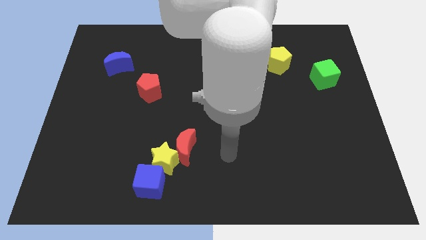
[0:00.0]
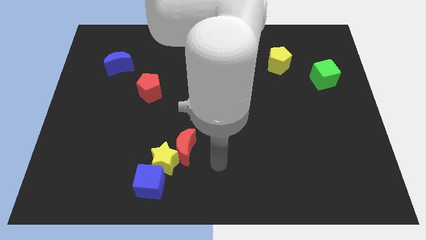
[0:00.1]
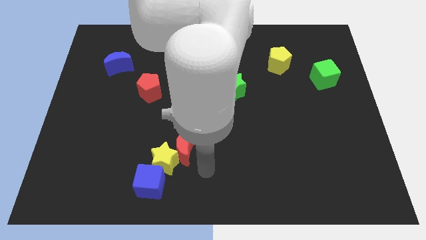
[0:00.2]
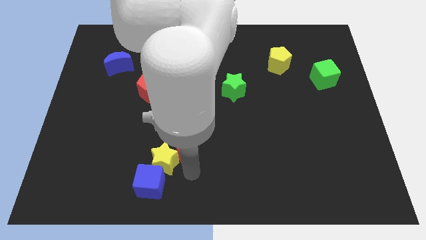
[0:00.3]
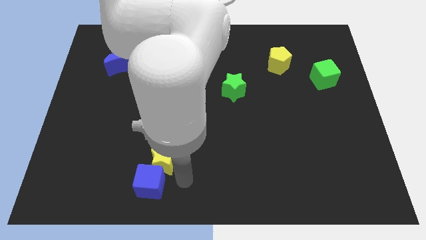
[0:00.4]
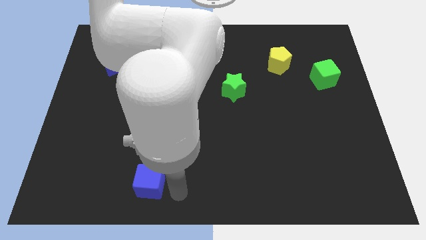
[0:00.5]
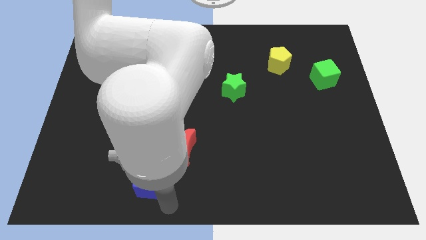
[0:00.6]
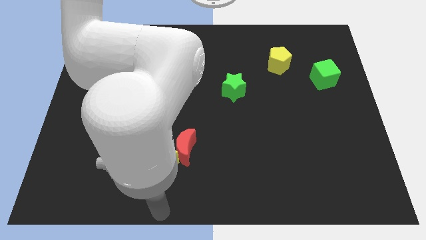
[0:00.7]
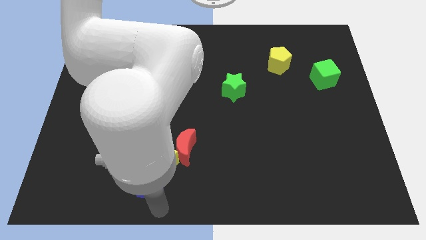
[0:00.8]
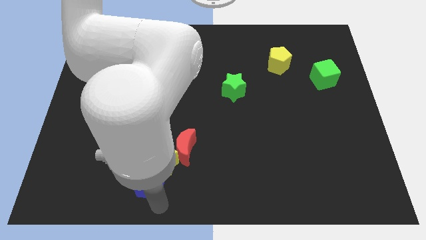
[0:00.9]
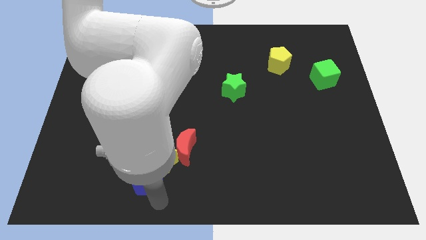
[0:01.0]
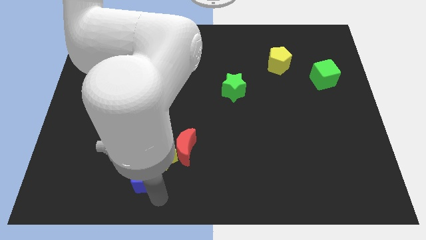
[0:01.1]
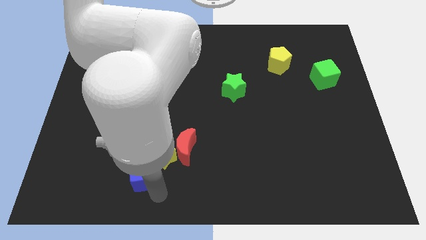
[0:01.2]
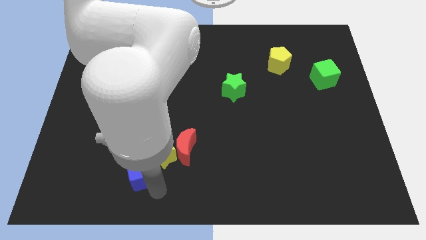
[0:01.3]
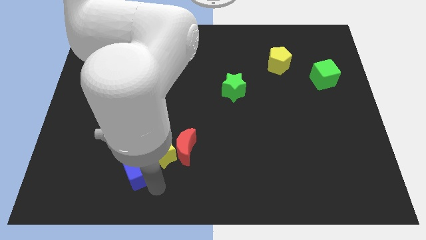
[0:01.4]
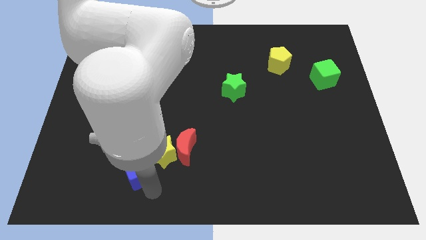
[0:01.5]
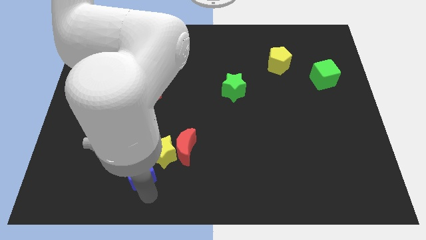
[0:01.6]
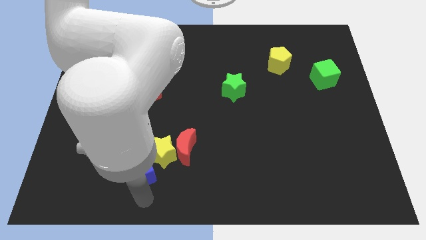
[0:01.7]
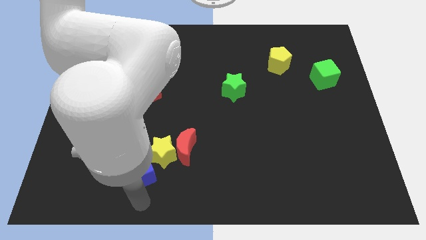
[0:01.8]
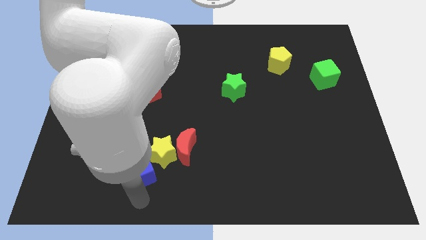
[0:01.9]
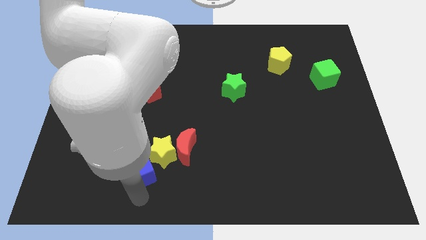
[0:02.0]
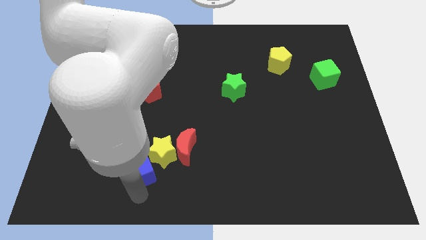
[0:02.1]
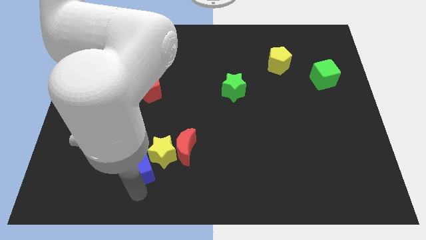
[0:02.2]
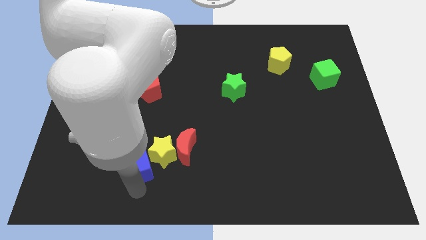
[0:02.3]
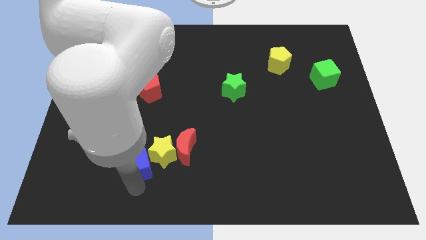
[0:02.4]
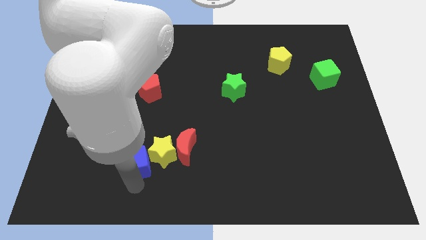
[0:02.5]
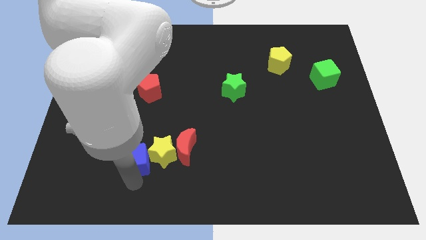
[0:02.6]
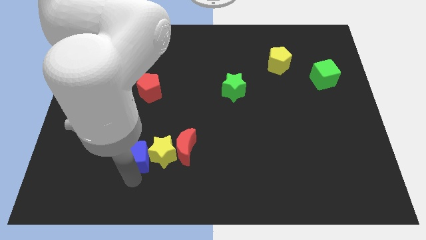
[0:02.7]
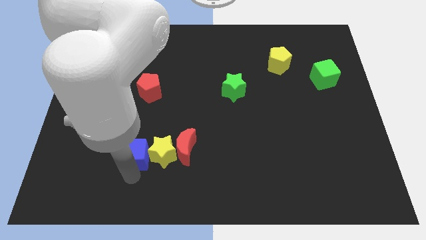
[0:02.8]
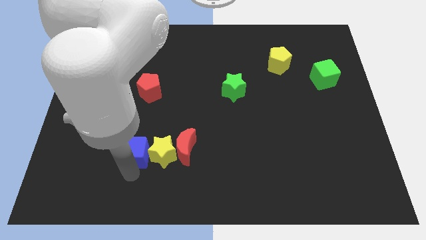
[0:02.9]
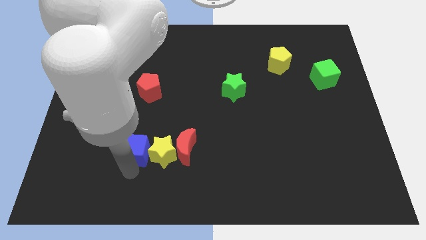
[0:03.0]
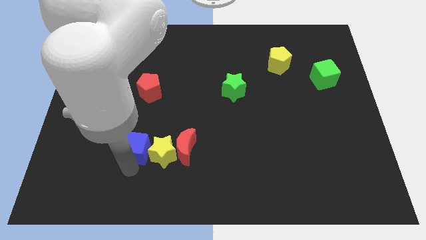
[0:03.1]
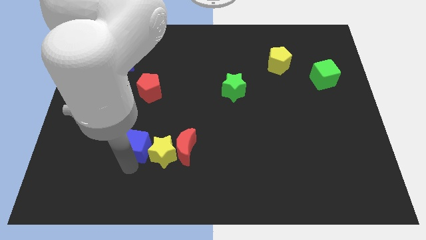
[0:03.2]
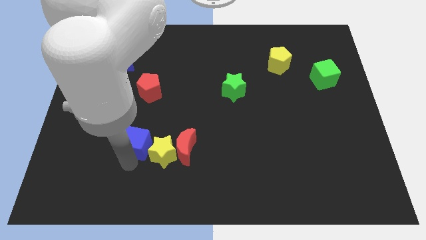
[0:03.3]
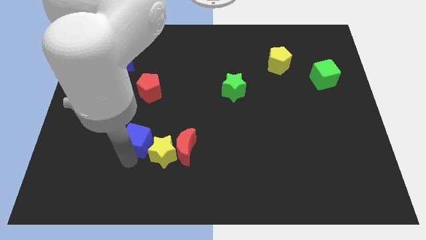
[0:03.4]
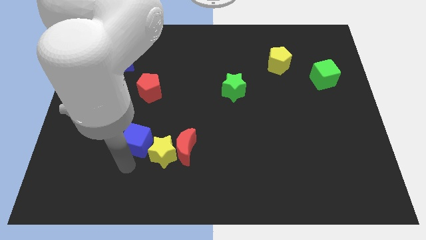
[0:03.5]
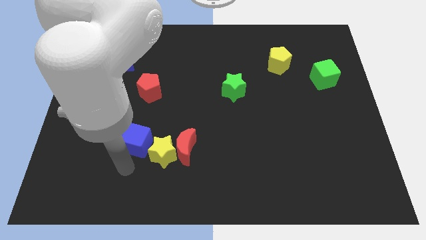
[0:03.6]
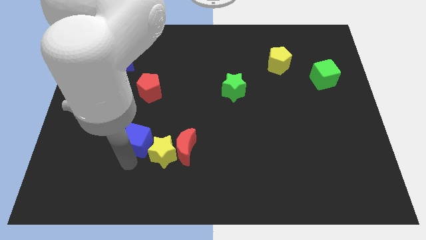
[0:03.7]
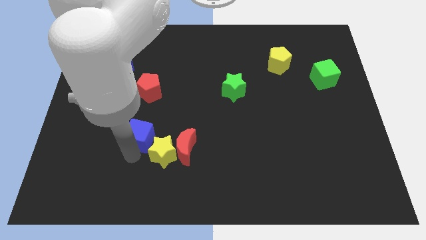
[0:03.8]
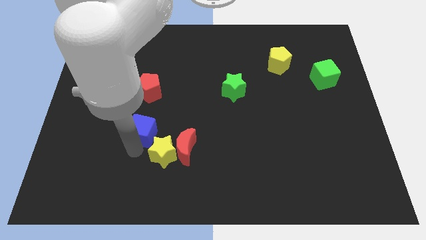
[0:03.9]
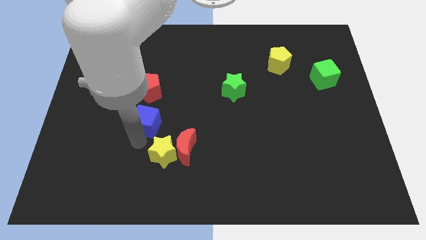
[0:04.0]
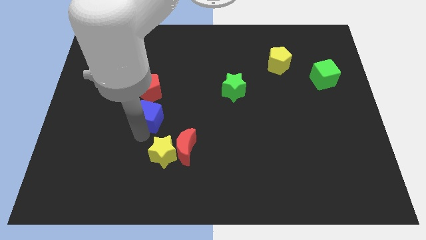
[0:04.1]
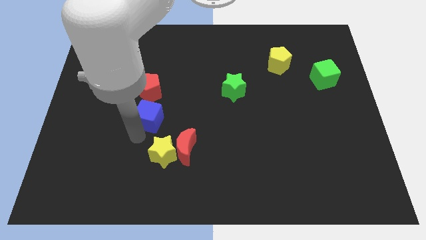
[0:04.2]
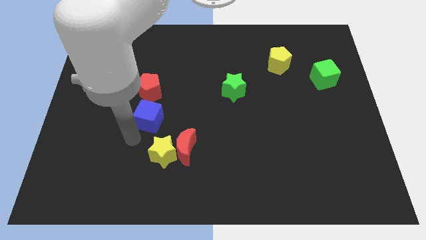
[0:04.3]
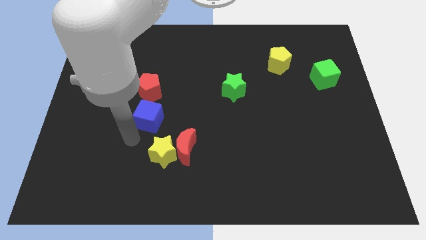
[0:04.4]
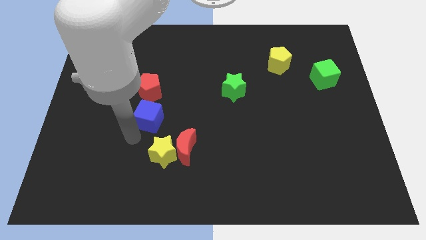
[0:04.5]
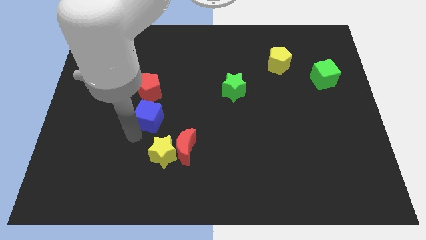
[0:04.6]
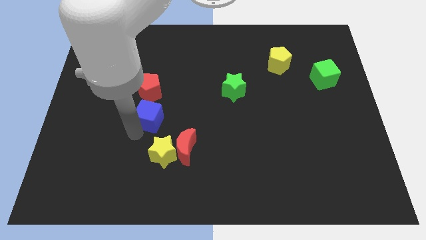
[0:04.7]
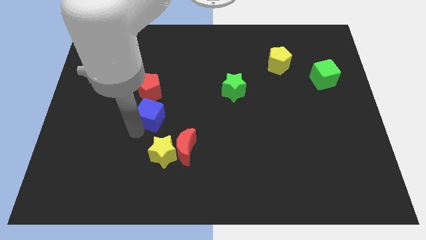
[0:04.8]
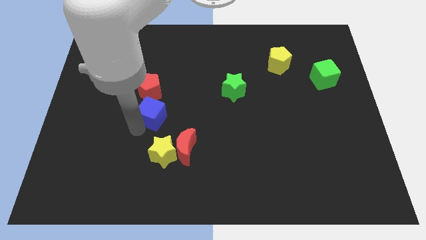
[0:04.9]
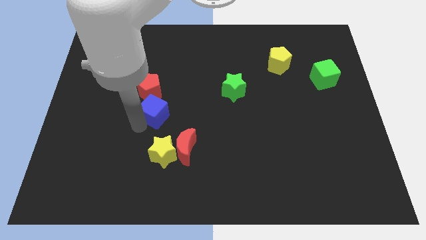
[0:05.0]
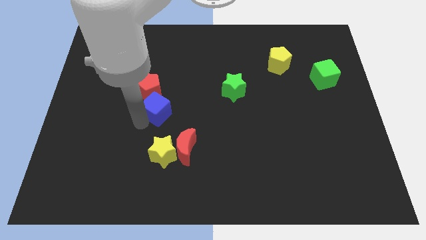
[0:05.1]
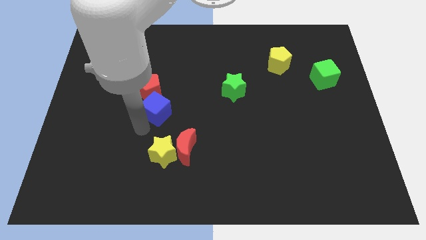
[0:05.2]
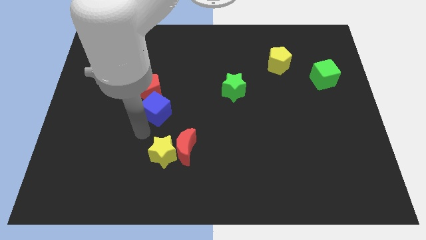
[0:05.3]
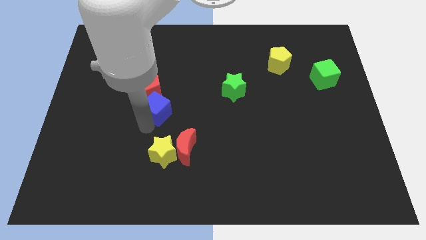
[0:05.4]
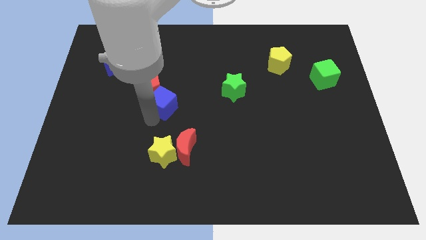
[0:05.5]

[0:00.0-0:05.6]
slide the blue cube up

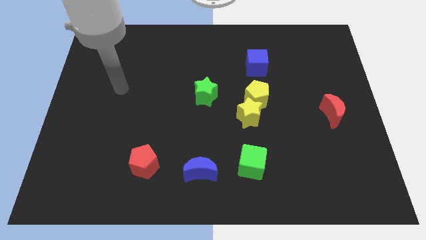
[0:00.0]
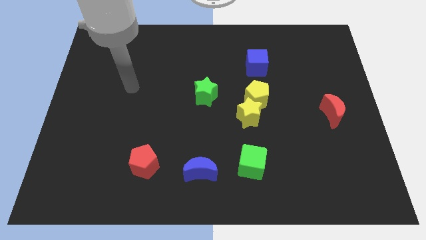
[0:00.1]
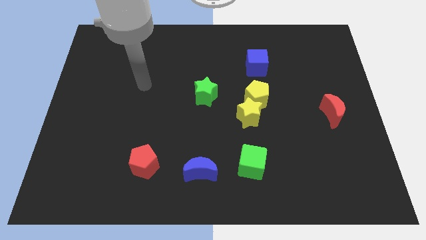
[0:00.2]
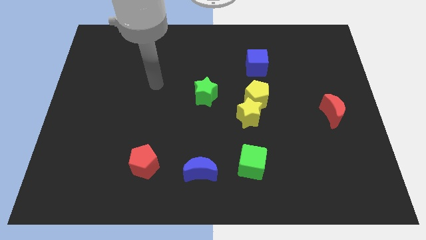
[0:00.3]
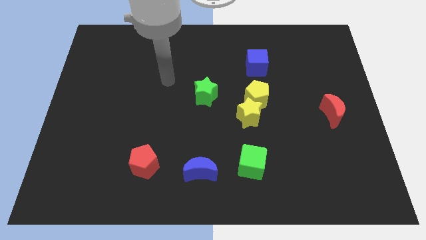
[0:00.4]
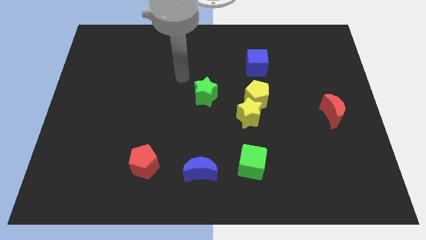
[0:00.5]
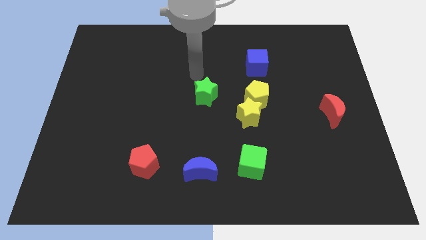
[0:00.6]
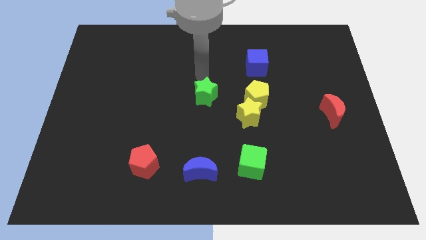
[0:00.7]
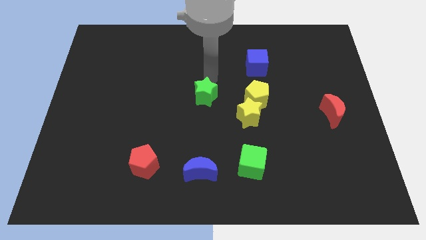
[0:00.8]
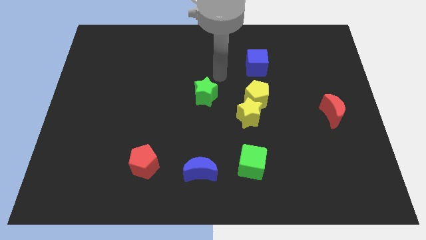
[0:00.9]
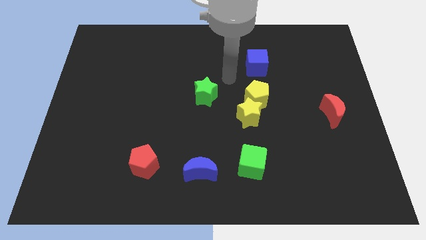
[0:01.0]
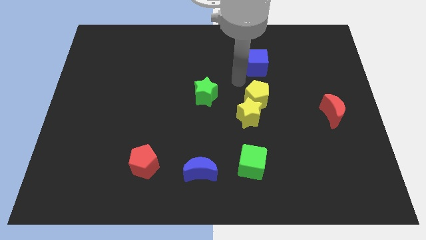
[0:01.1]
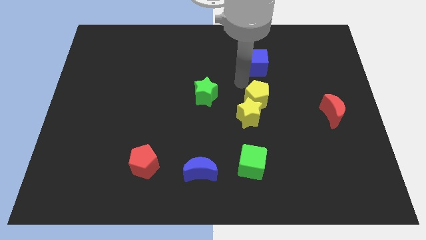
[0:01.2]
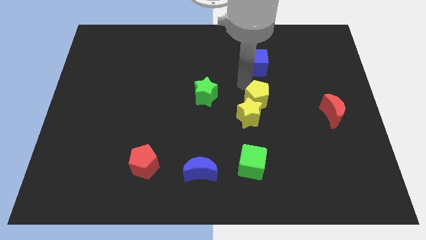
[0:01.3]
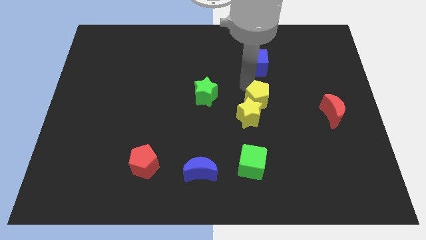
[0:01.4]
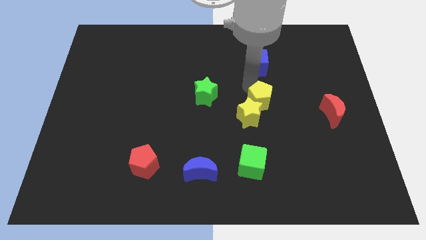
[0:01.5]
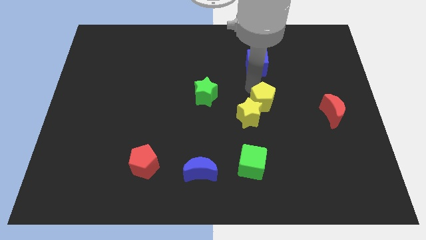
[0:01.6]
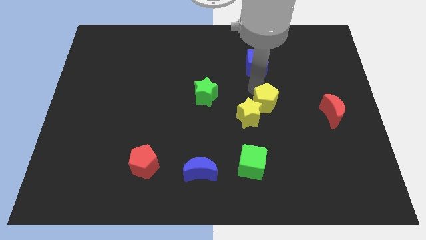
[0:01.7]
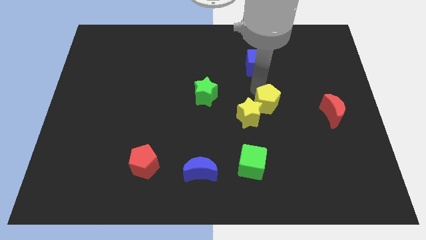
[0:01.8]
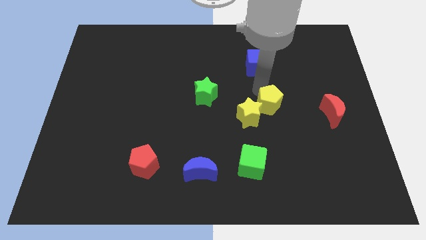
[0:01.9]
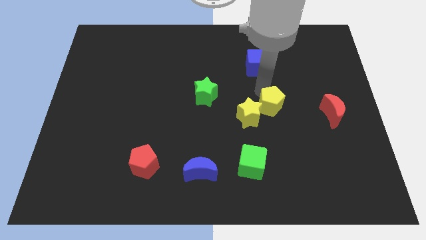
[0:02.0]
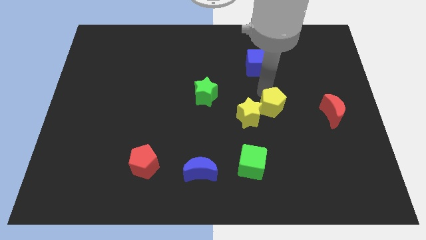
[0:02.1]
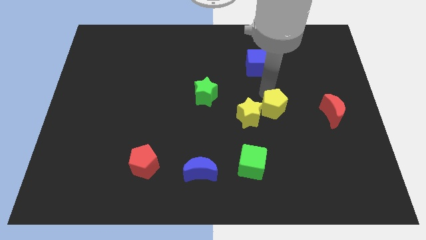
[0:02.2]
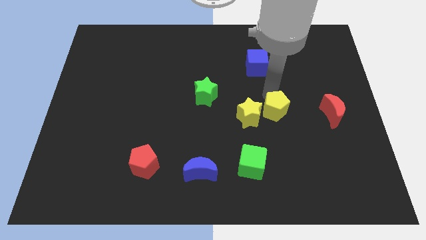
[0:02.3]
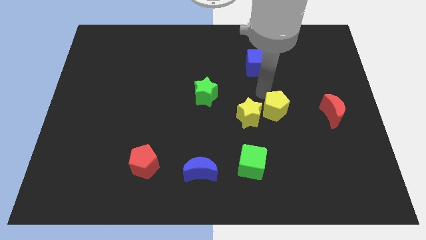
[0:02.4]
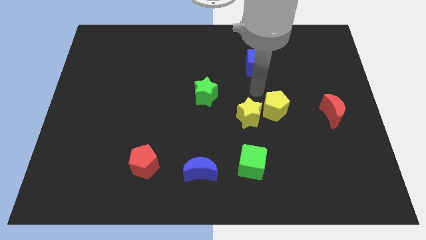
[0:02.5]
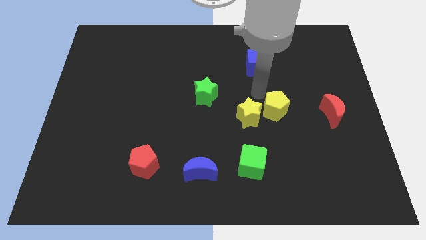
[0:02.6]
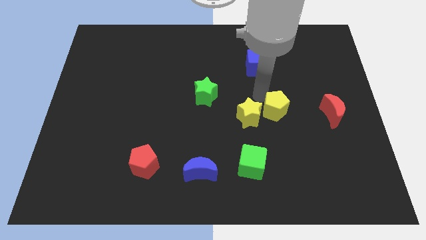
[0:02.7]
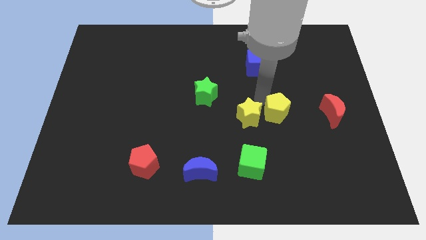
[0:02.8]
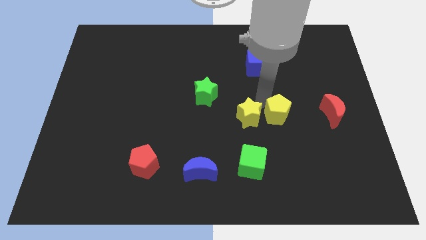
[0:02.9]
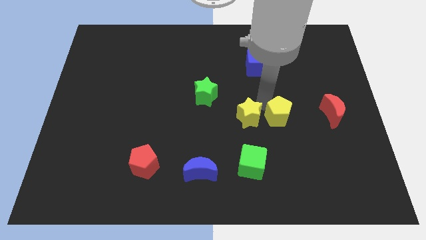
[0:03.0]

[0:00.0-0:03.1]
slightly move the yellow pentagon down and then to the right
